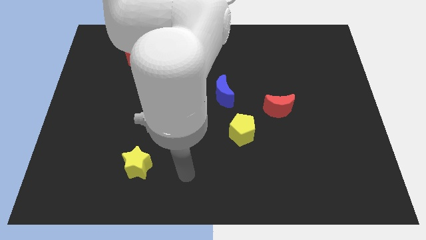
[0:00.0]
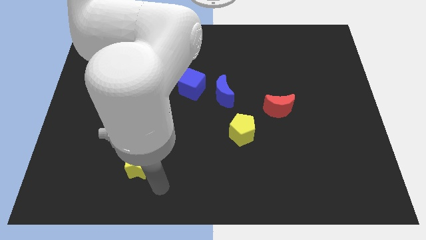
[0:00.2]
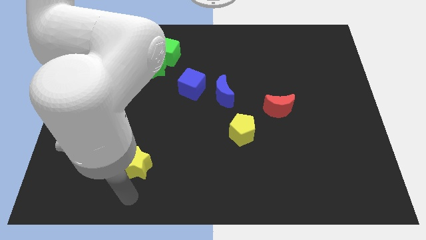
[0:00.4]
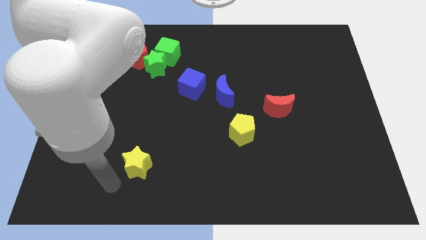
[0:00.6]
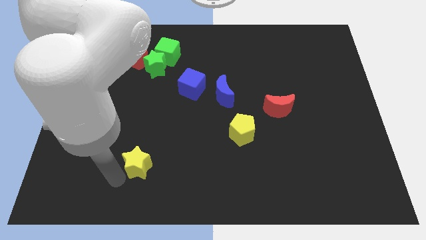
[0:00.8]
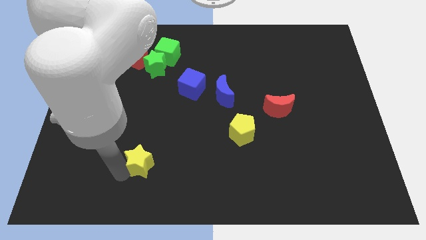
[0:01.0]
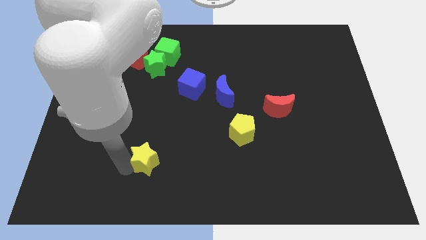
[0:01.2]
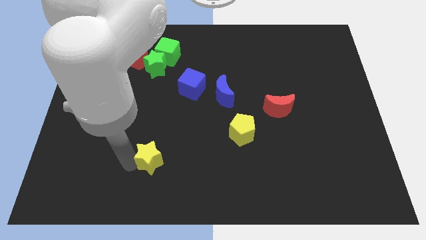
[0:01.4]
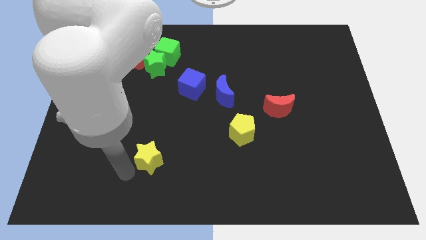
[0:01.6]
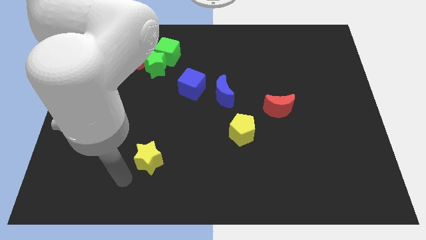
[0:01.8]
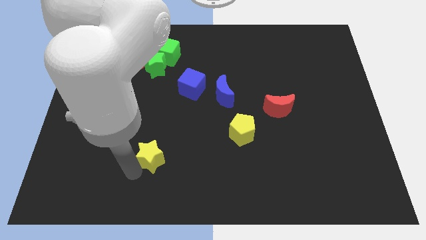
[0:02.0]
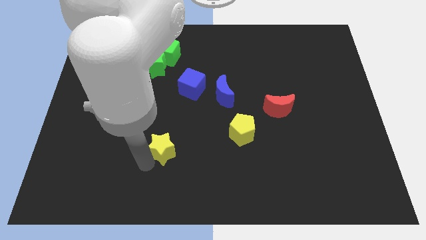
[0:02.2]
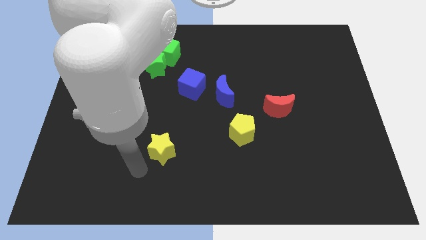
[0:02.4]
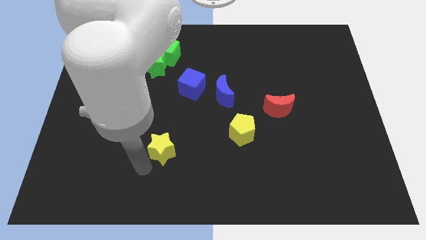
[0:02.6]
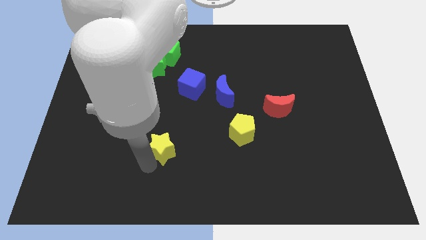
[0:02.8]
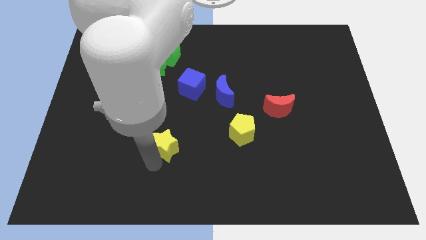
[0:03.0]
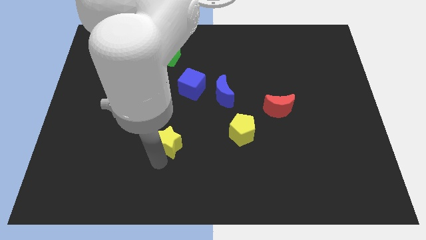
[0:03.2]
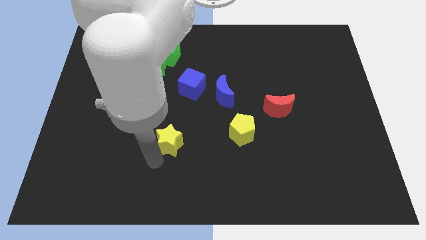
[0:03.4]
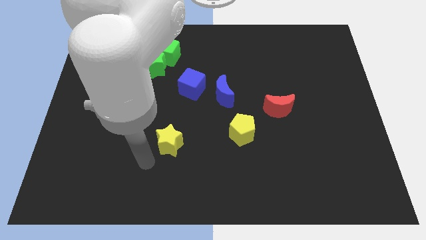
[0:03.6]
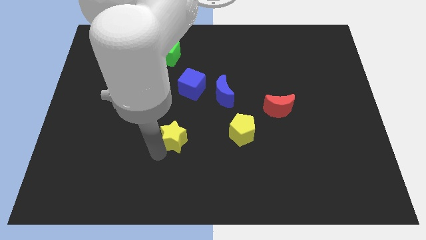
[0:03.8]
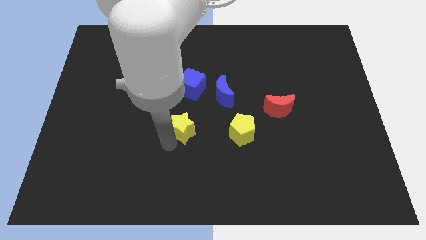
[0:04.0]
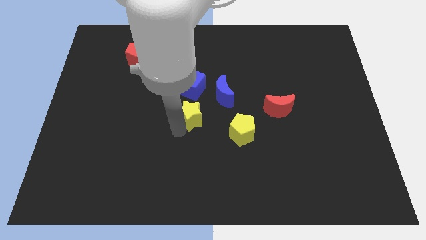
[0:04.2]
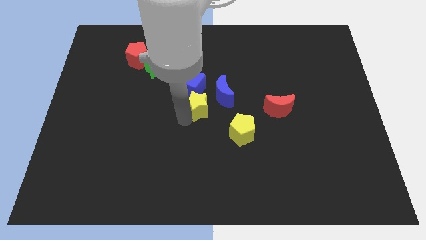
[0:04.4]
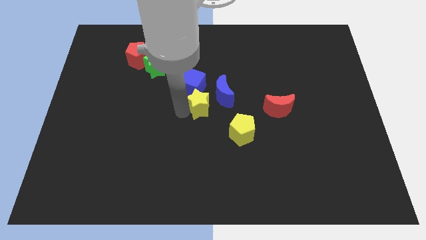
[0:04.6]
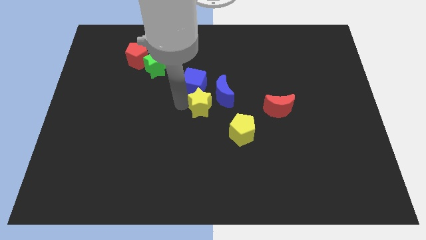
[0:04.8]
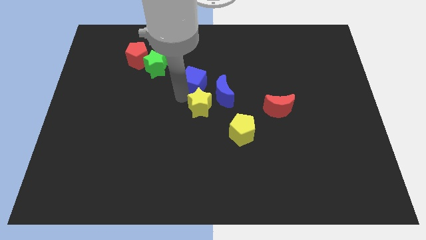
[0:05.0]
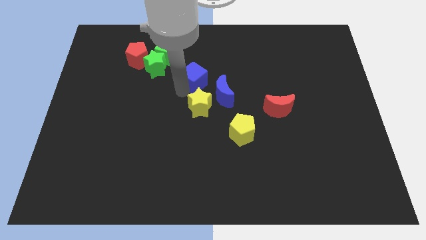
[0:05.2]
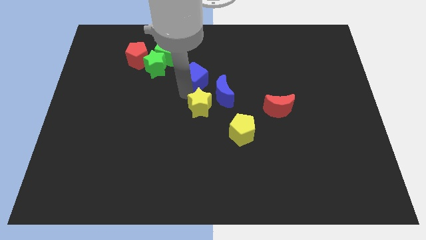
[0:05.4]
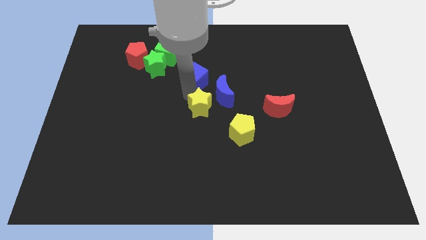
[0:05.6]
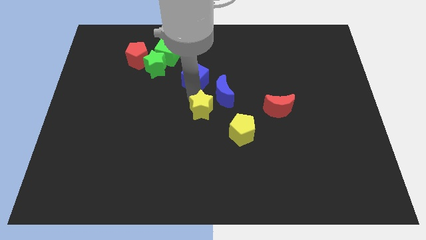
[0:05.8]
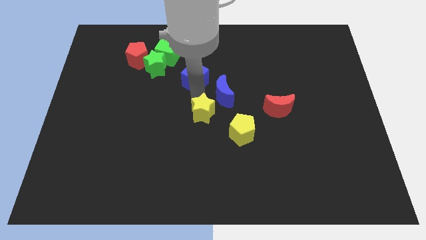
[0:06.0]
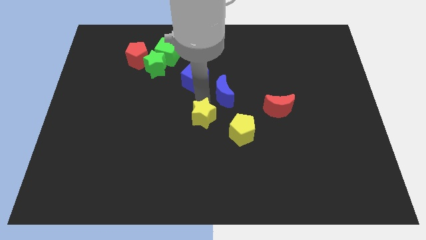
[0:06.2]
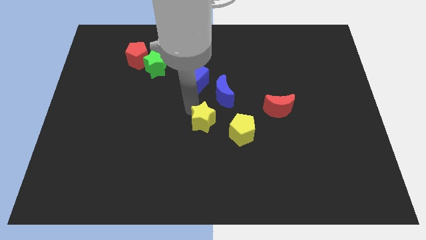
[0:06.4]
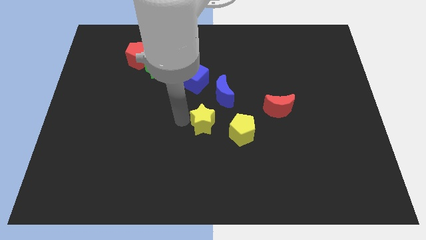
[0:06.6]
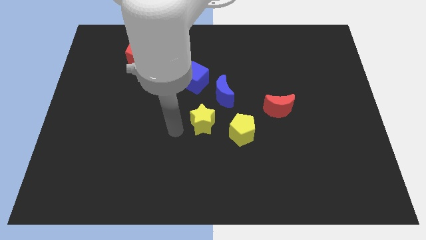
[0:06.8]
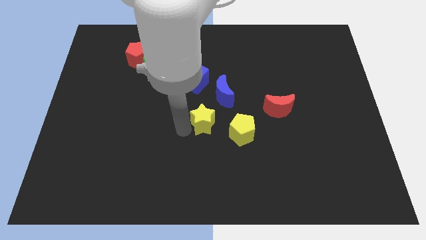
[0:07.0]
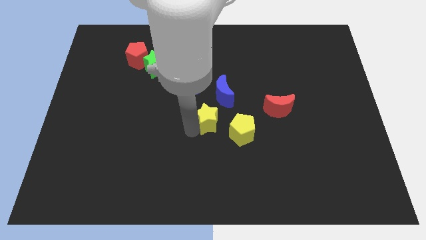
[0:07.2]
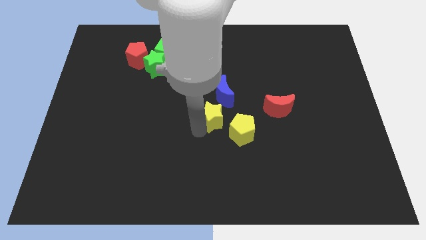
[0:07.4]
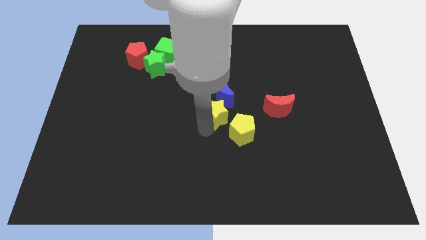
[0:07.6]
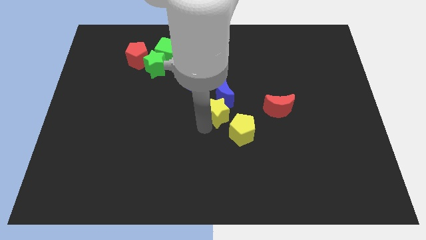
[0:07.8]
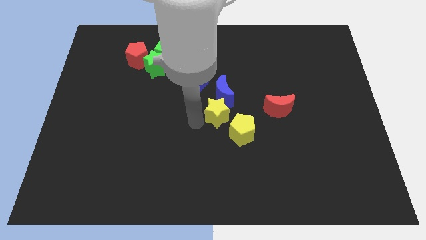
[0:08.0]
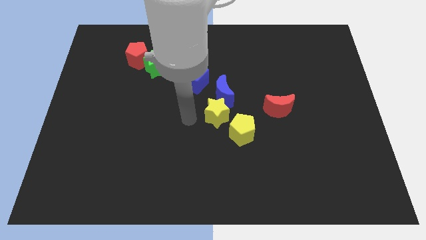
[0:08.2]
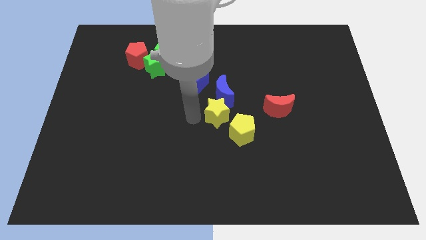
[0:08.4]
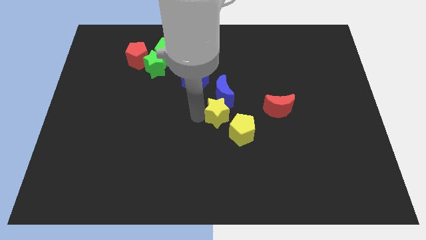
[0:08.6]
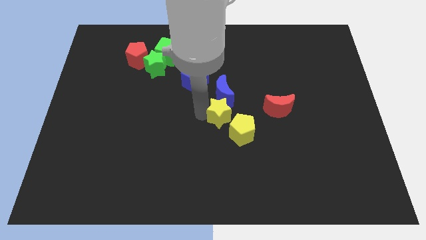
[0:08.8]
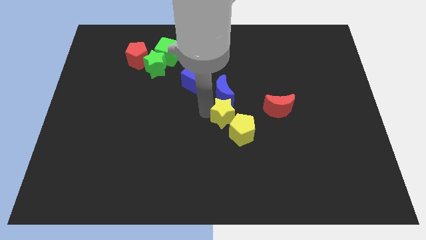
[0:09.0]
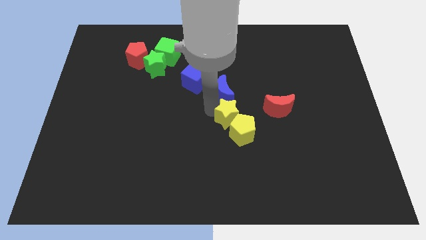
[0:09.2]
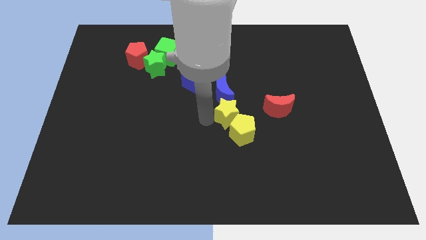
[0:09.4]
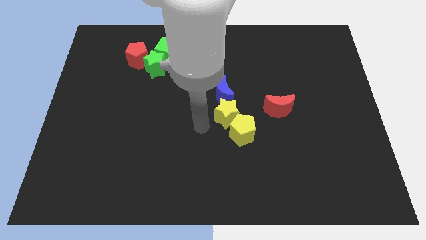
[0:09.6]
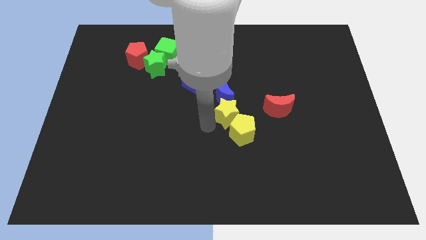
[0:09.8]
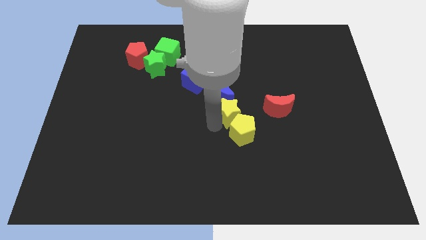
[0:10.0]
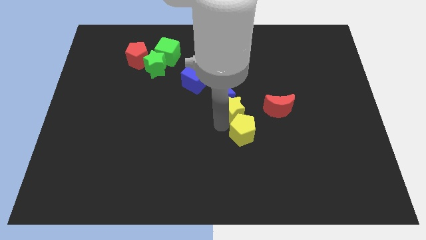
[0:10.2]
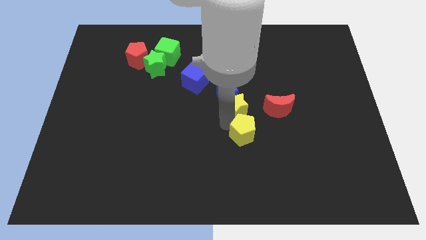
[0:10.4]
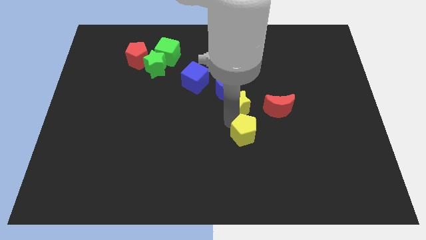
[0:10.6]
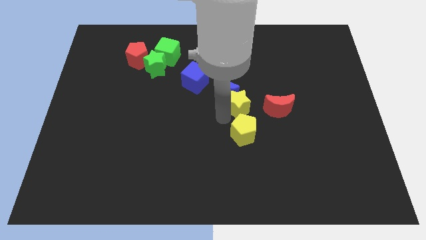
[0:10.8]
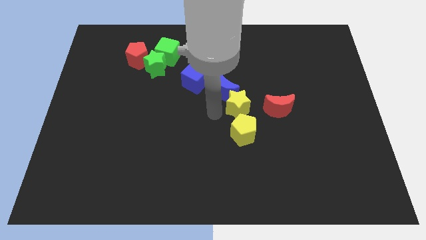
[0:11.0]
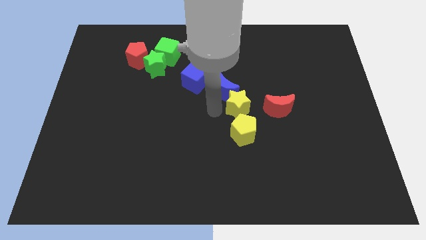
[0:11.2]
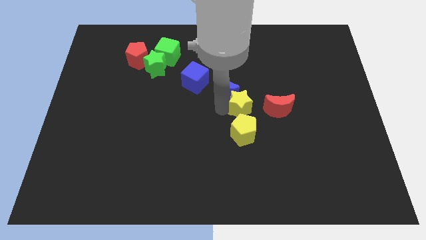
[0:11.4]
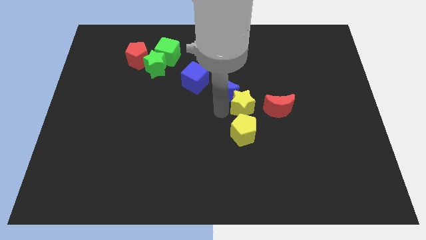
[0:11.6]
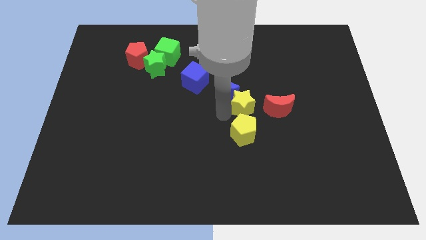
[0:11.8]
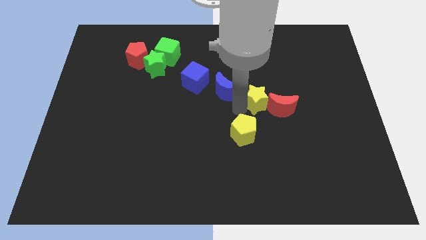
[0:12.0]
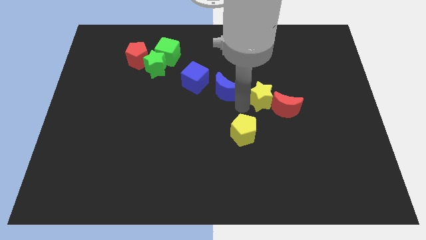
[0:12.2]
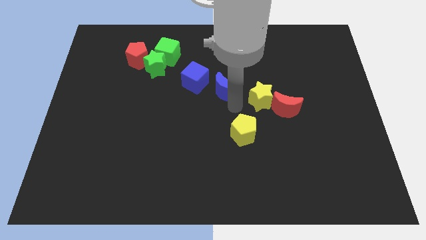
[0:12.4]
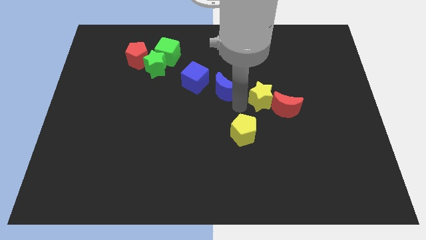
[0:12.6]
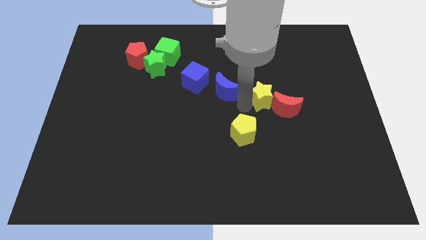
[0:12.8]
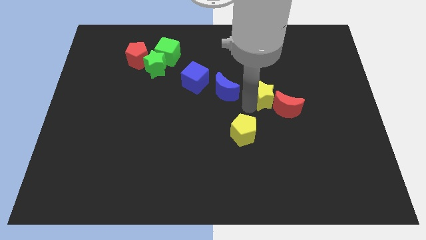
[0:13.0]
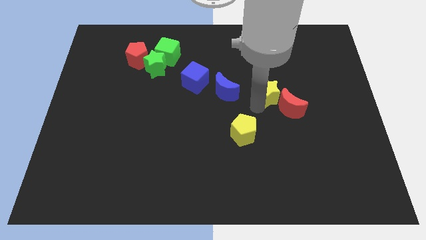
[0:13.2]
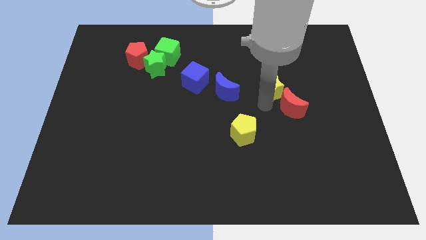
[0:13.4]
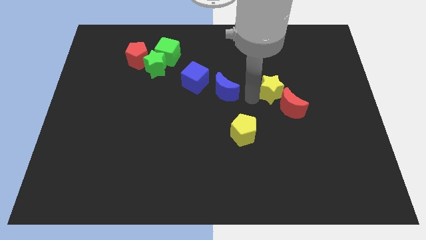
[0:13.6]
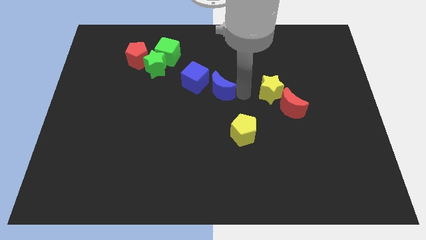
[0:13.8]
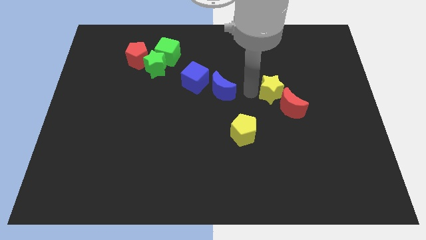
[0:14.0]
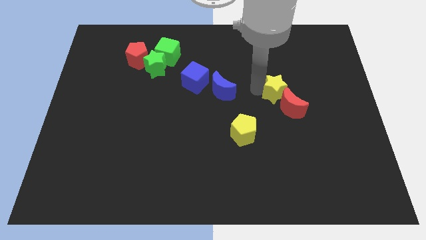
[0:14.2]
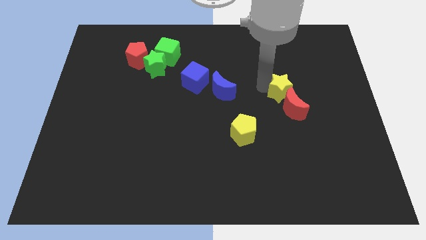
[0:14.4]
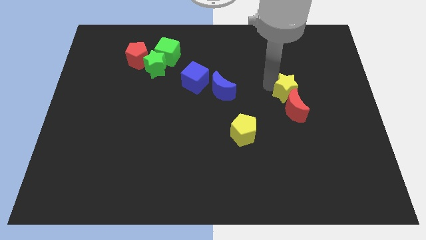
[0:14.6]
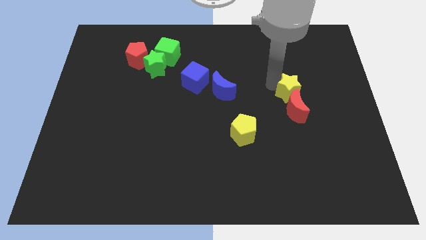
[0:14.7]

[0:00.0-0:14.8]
push the yellow star to the top right side of the red moon
